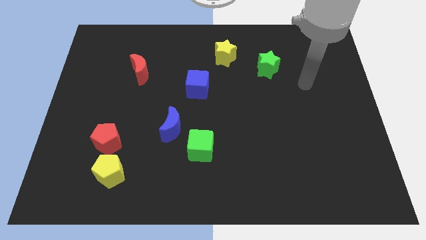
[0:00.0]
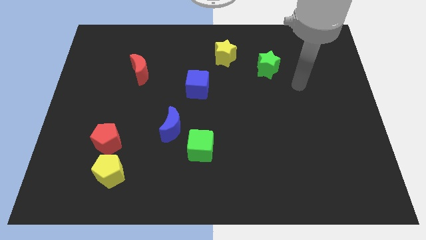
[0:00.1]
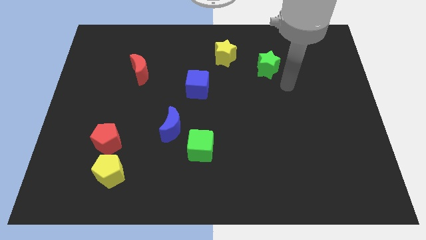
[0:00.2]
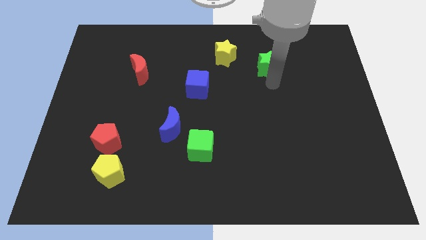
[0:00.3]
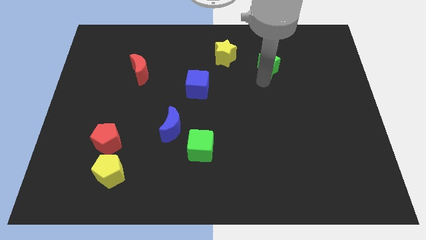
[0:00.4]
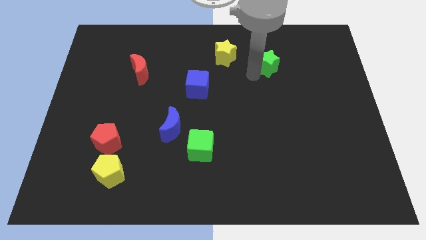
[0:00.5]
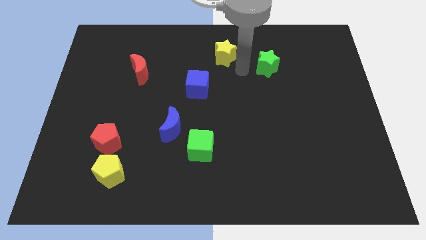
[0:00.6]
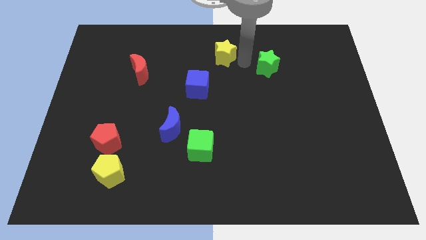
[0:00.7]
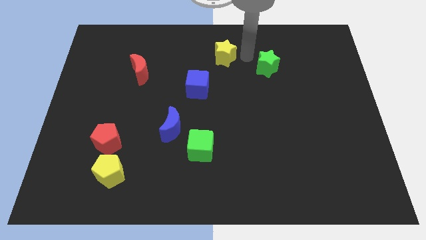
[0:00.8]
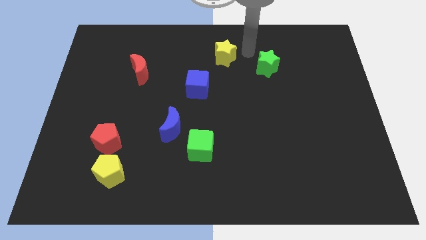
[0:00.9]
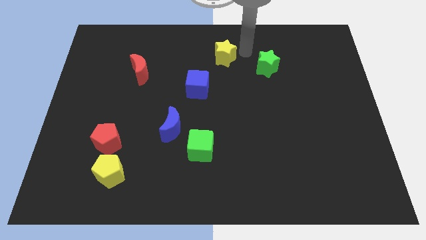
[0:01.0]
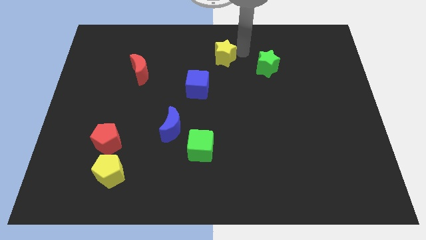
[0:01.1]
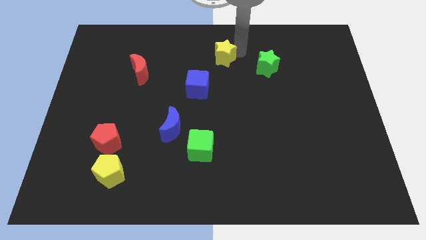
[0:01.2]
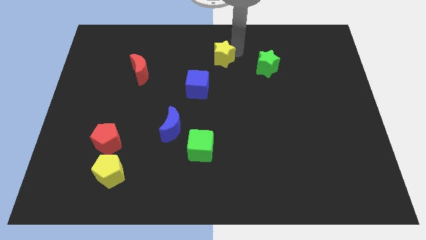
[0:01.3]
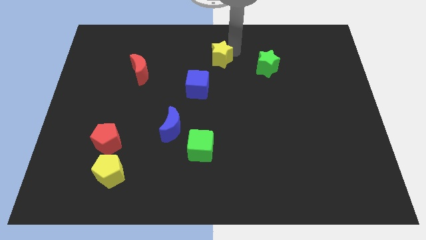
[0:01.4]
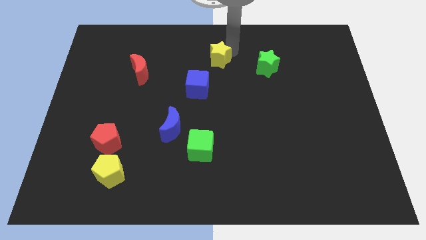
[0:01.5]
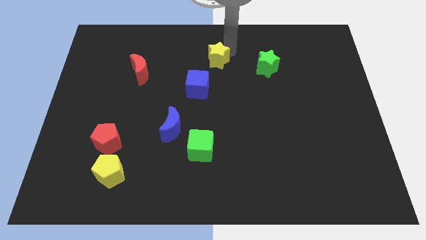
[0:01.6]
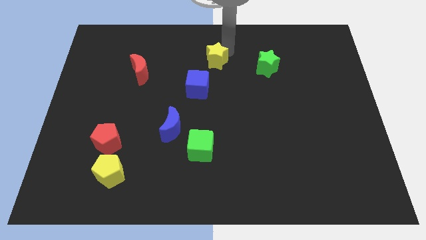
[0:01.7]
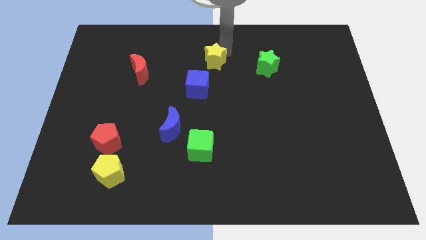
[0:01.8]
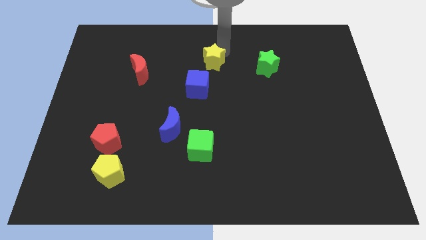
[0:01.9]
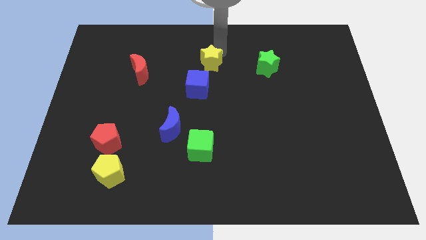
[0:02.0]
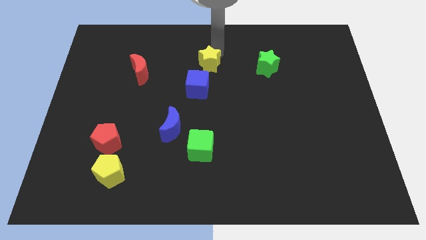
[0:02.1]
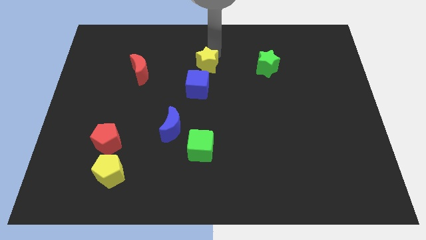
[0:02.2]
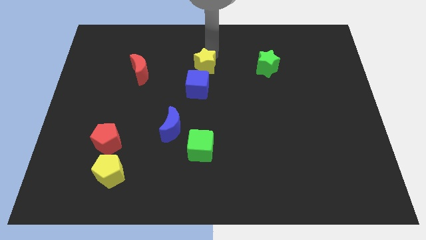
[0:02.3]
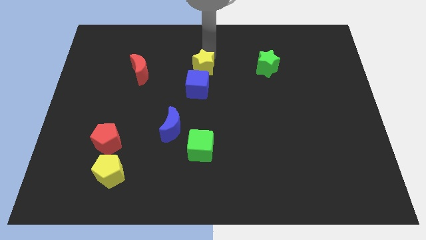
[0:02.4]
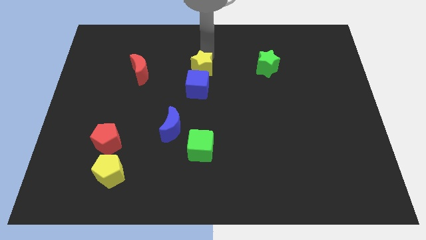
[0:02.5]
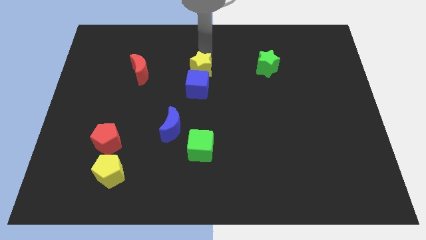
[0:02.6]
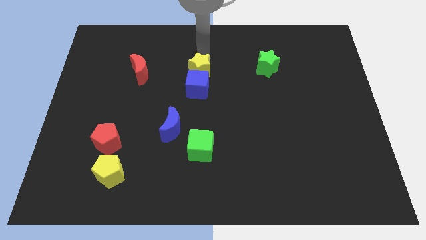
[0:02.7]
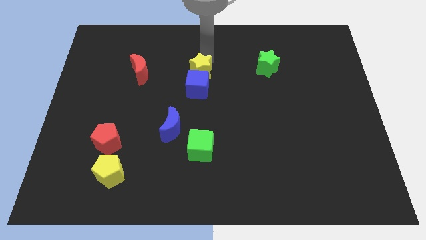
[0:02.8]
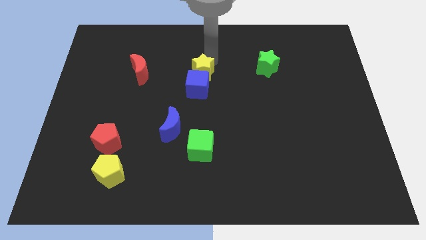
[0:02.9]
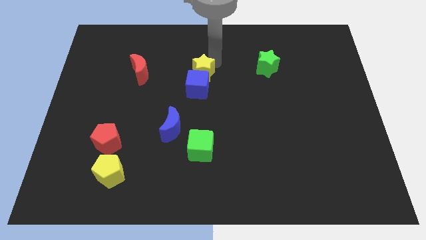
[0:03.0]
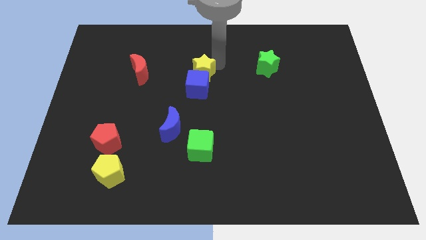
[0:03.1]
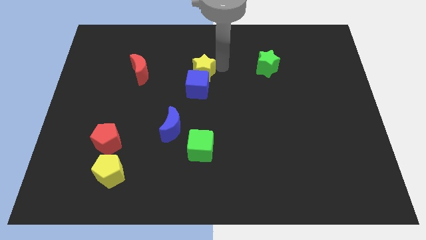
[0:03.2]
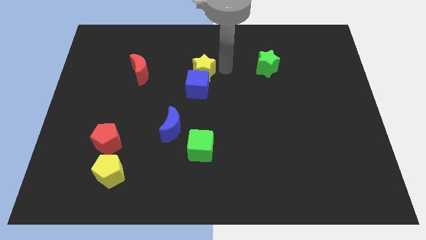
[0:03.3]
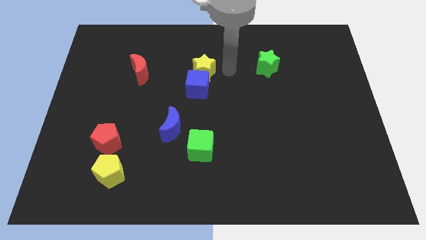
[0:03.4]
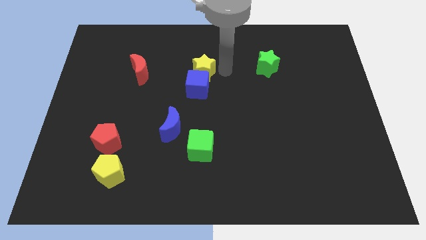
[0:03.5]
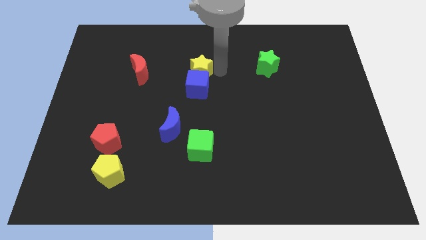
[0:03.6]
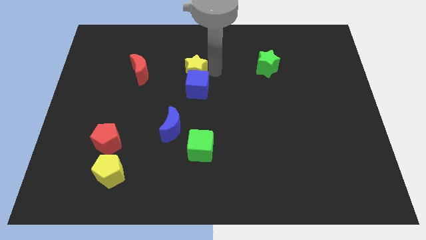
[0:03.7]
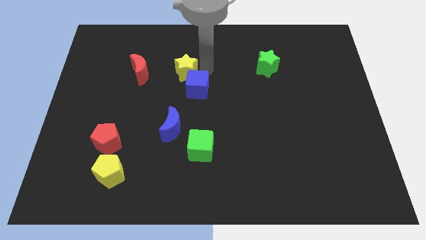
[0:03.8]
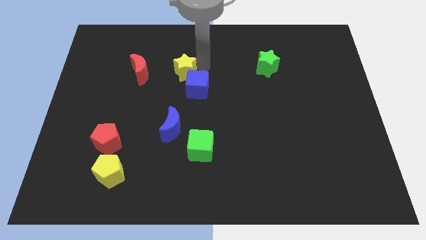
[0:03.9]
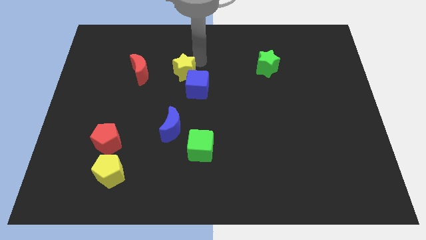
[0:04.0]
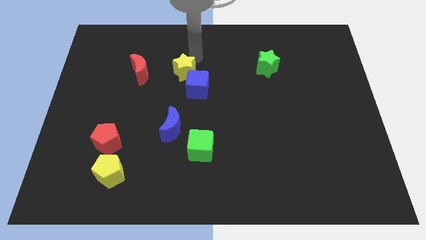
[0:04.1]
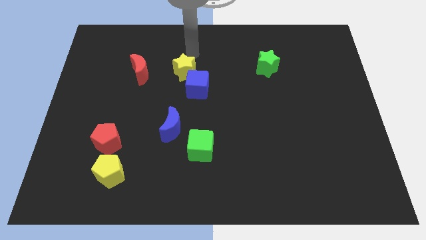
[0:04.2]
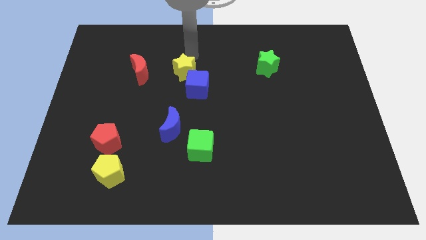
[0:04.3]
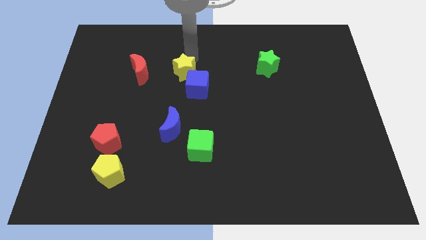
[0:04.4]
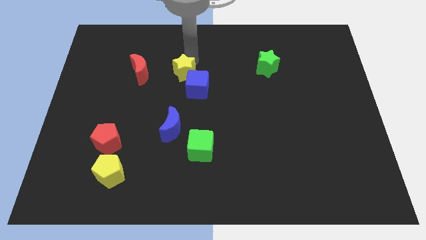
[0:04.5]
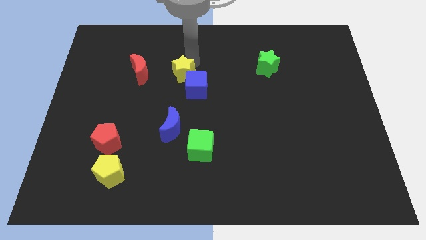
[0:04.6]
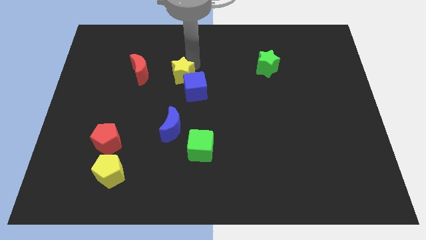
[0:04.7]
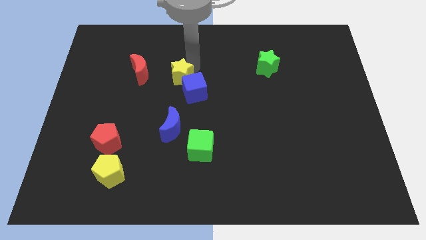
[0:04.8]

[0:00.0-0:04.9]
slide the yellow star to the top of the blue moon

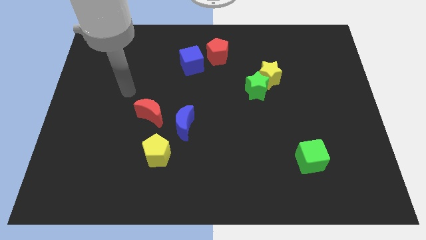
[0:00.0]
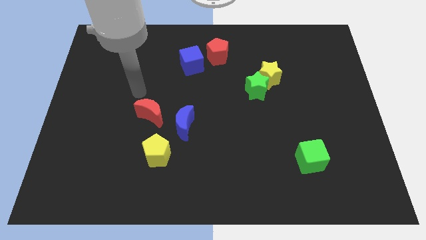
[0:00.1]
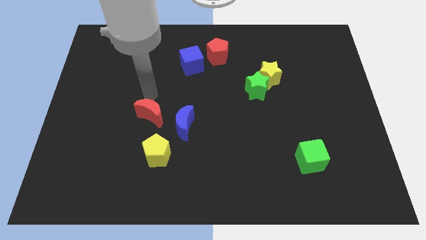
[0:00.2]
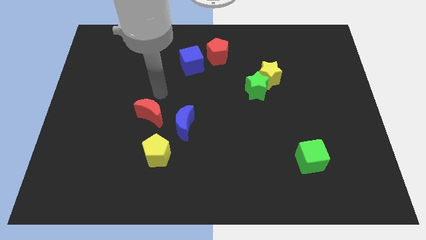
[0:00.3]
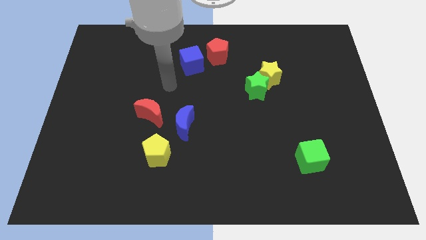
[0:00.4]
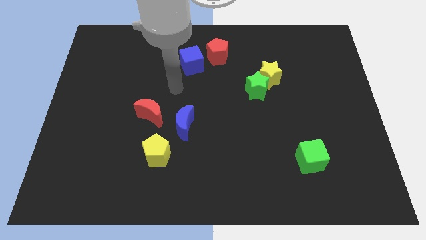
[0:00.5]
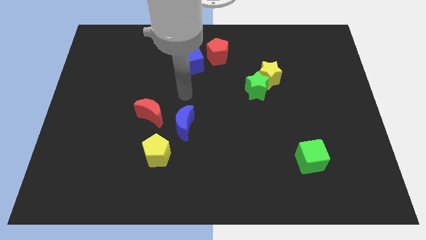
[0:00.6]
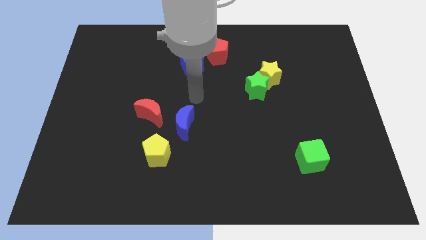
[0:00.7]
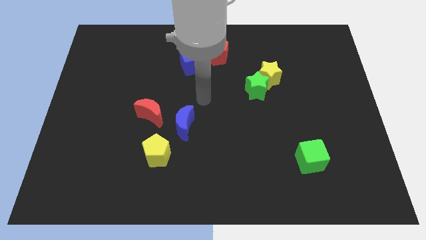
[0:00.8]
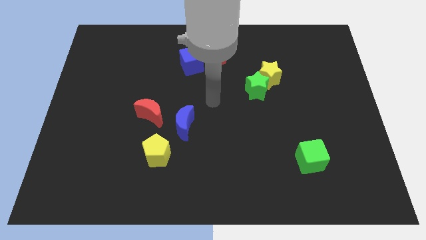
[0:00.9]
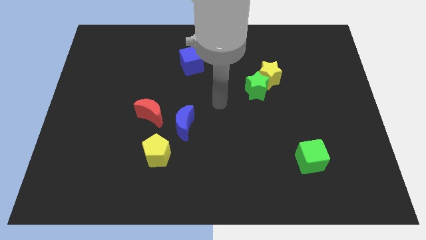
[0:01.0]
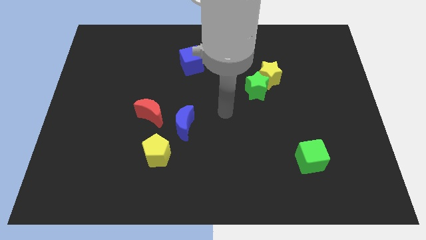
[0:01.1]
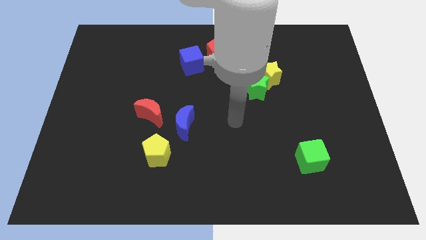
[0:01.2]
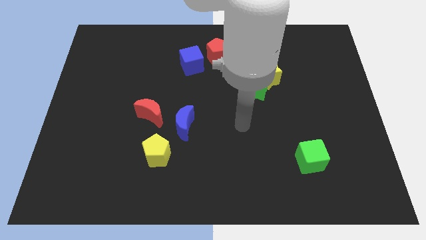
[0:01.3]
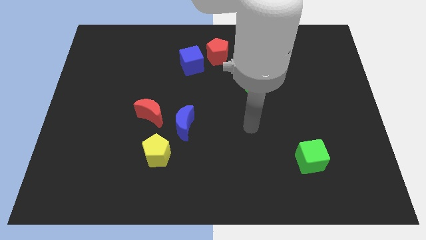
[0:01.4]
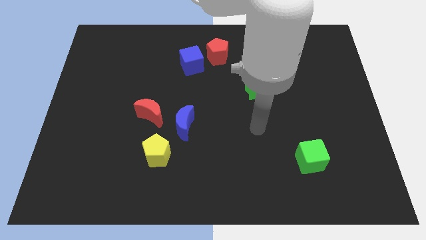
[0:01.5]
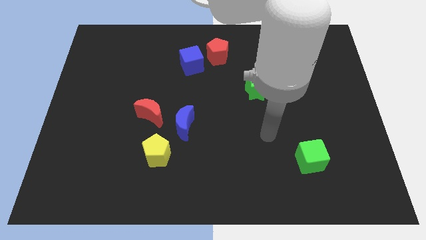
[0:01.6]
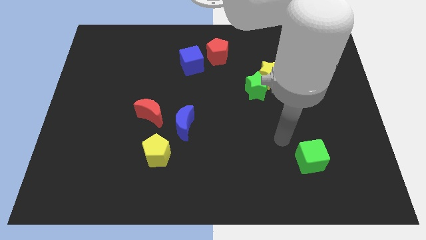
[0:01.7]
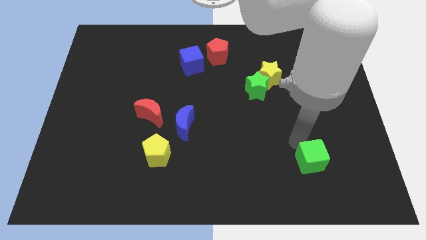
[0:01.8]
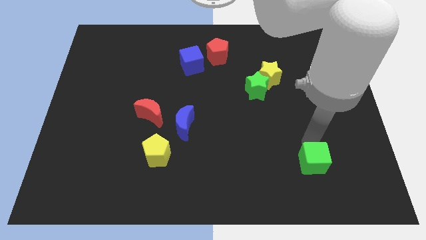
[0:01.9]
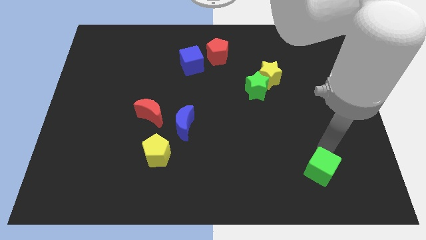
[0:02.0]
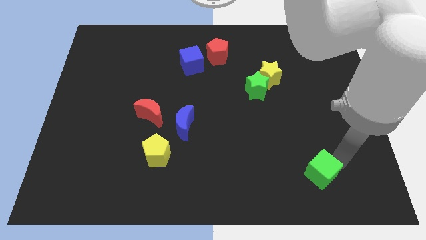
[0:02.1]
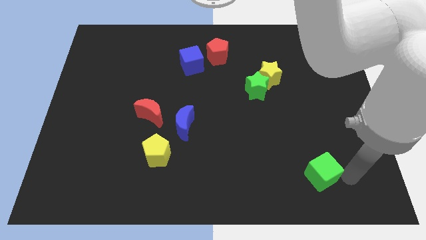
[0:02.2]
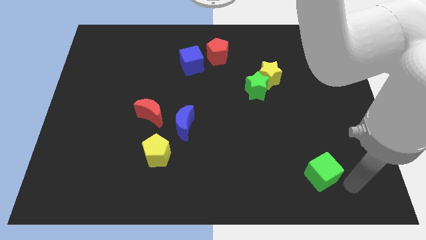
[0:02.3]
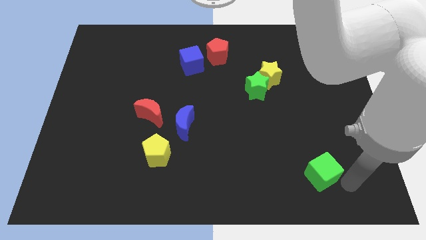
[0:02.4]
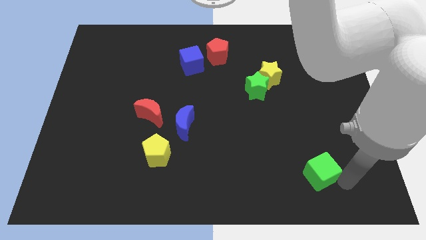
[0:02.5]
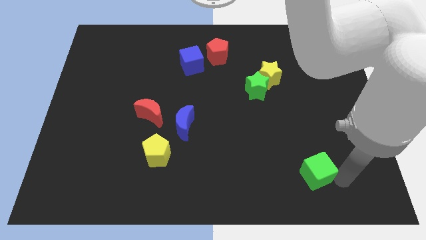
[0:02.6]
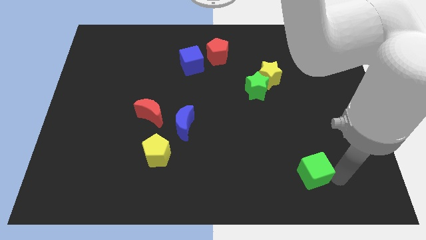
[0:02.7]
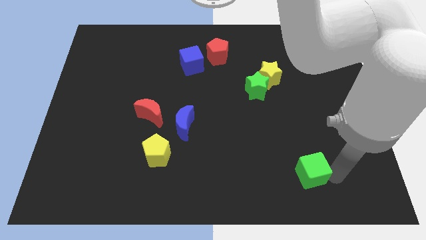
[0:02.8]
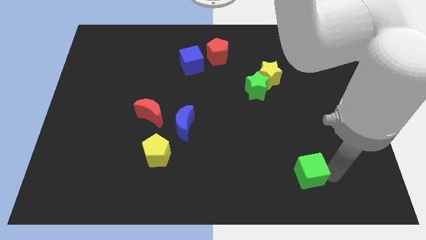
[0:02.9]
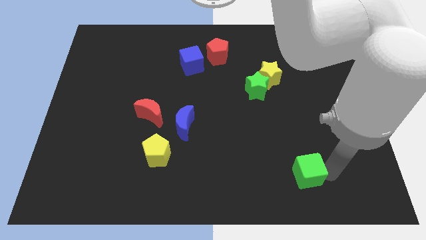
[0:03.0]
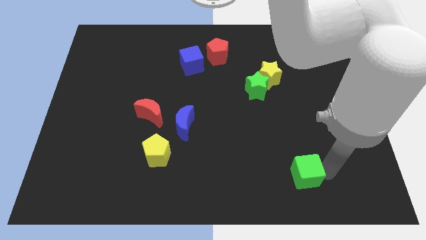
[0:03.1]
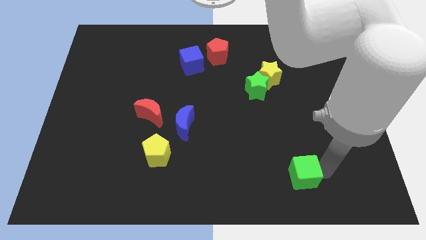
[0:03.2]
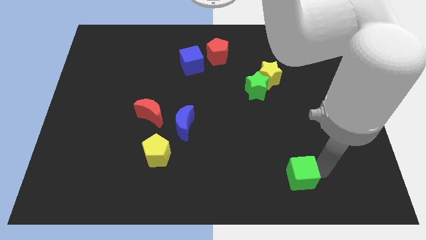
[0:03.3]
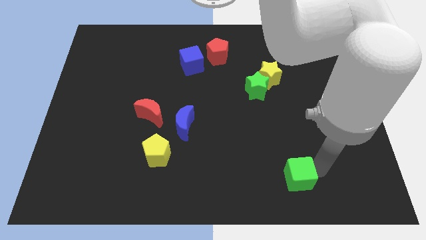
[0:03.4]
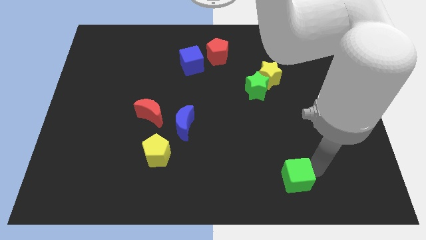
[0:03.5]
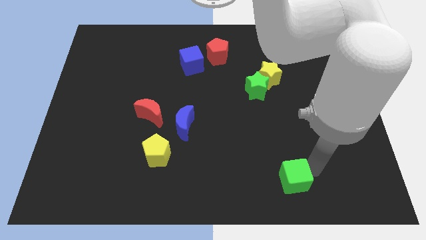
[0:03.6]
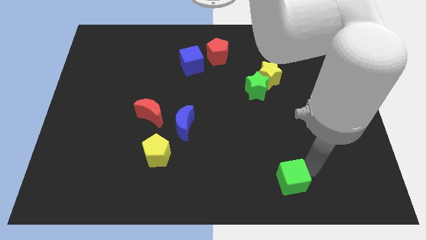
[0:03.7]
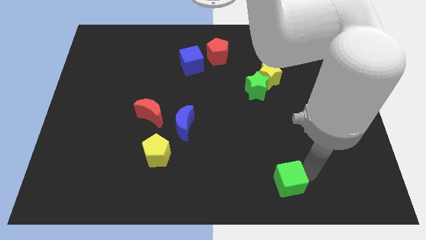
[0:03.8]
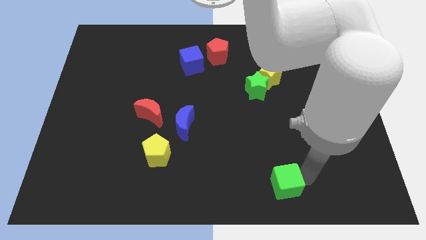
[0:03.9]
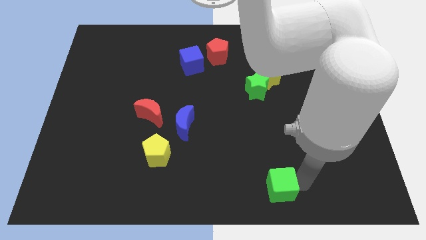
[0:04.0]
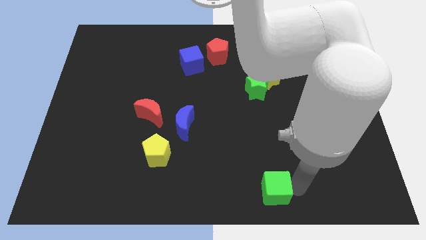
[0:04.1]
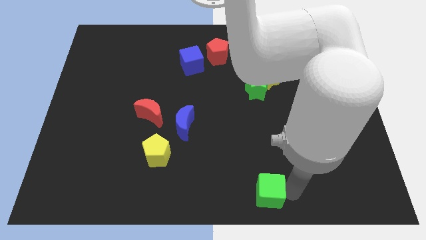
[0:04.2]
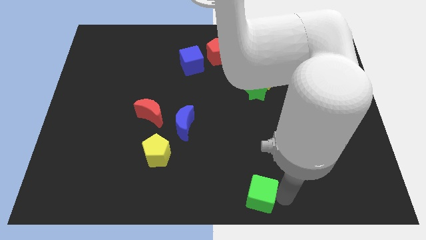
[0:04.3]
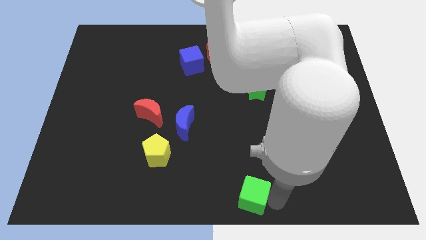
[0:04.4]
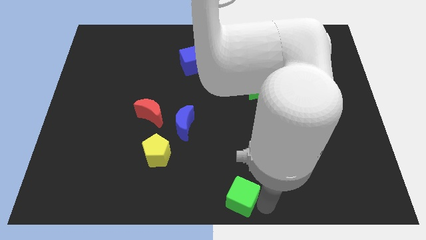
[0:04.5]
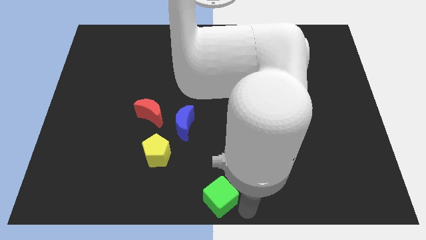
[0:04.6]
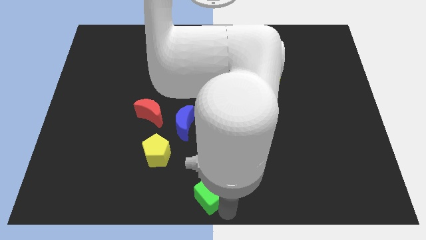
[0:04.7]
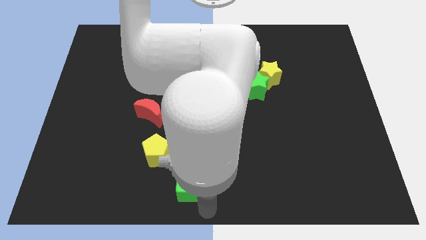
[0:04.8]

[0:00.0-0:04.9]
push the green cube to the bottom side of the blue moon
